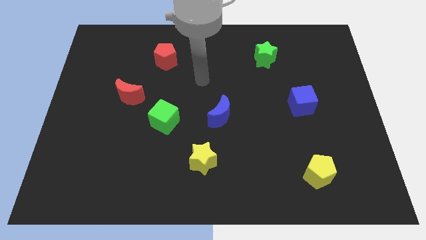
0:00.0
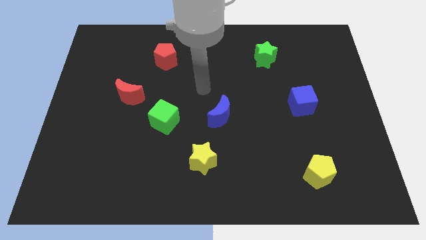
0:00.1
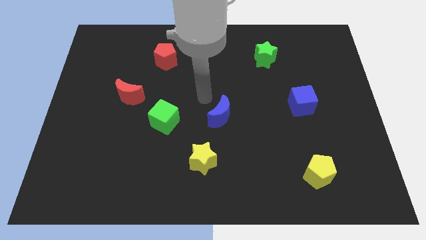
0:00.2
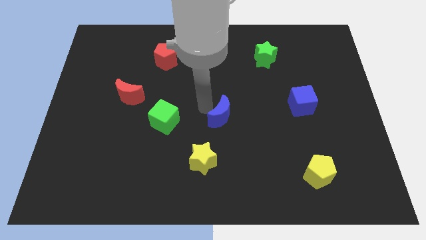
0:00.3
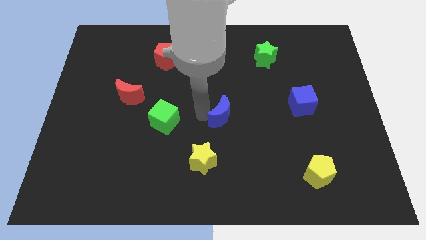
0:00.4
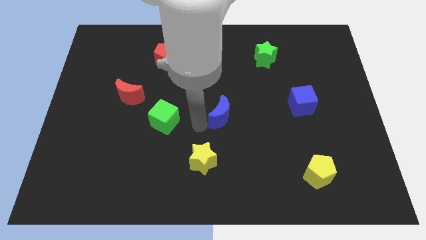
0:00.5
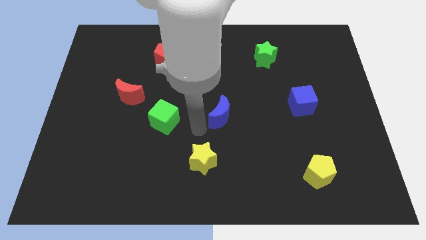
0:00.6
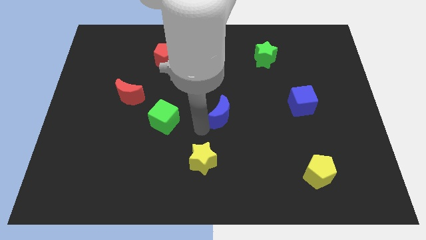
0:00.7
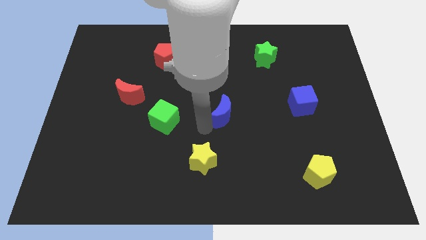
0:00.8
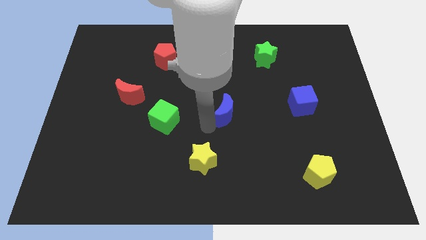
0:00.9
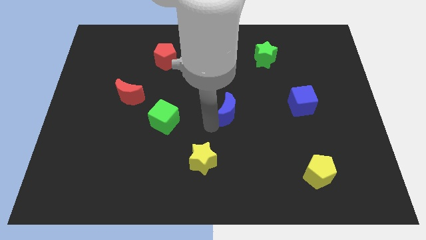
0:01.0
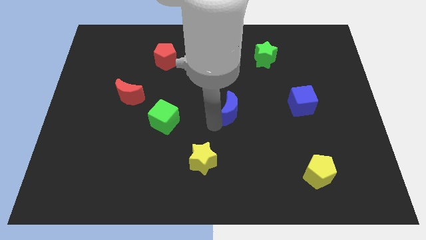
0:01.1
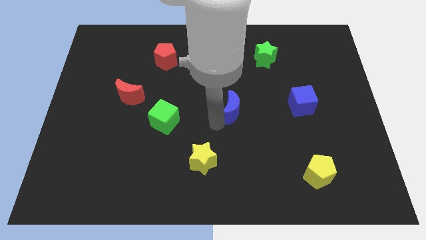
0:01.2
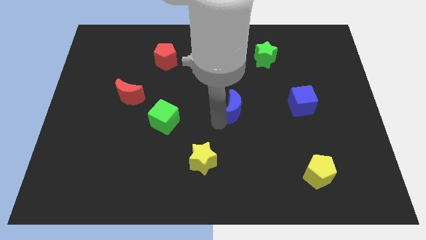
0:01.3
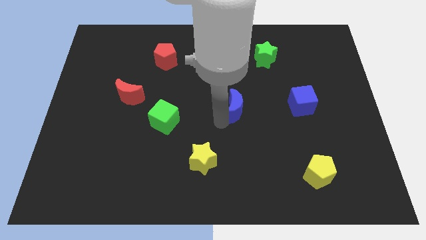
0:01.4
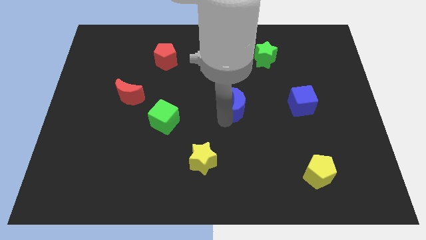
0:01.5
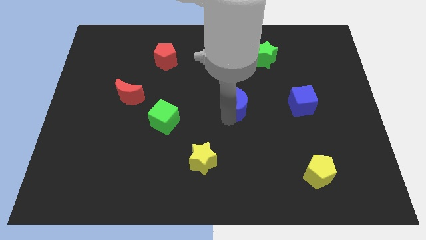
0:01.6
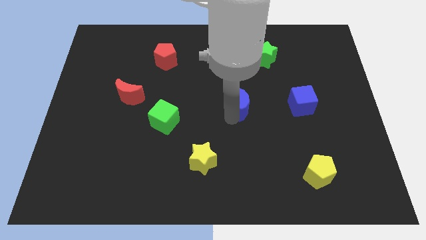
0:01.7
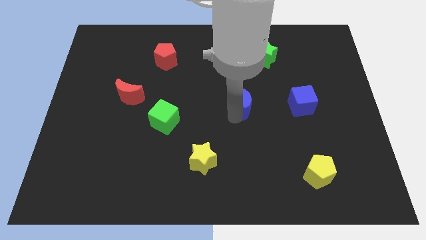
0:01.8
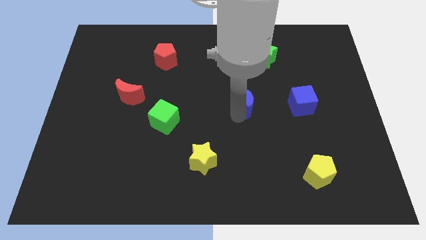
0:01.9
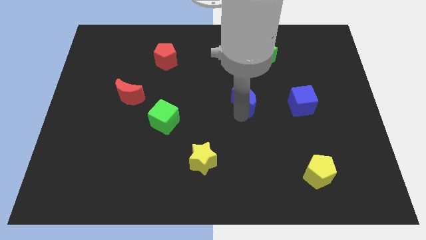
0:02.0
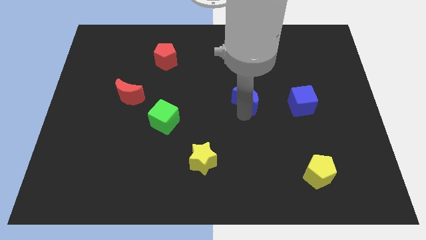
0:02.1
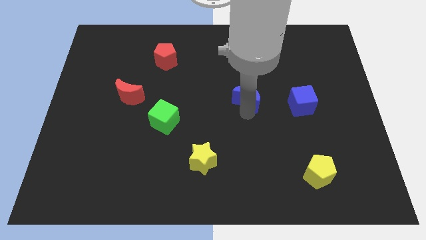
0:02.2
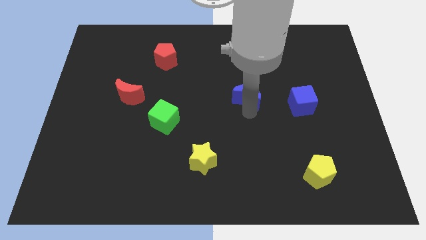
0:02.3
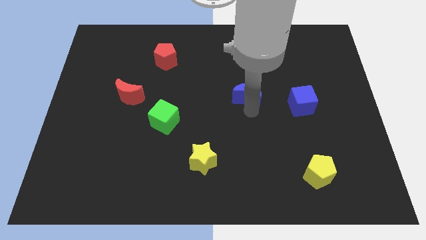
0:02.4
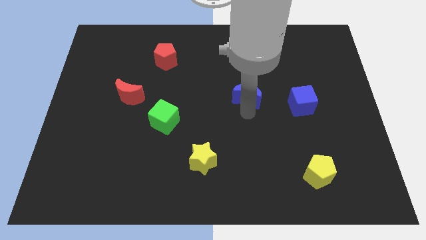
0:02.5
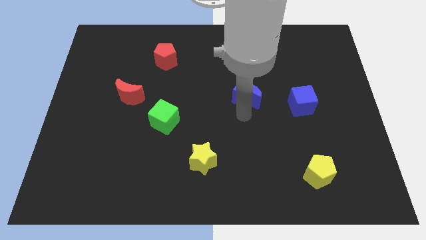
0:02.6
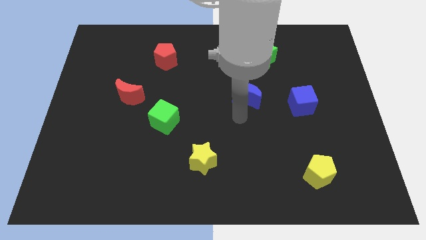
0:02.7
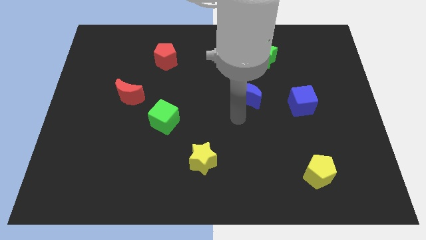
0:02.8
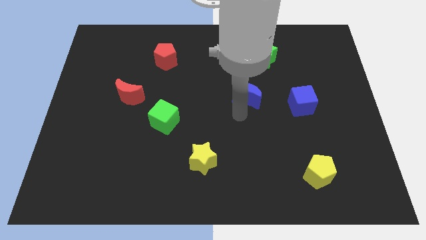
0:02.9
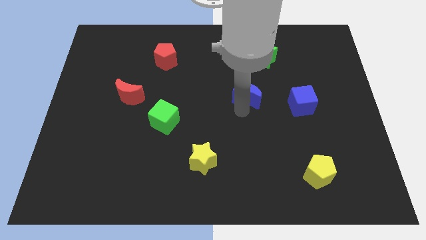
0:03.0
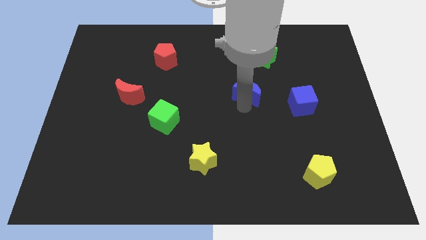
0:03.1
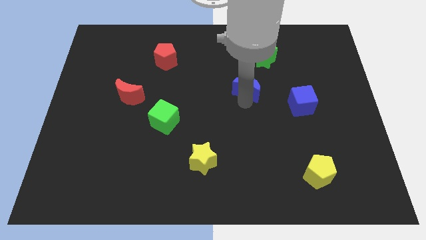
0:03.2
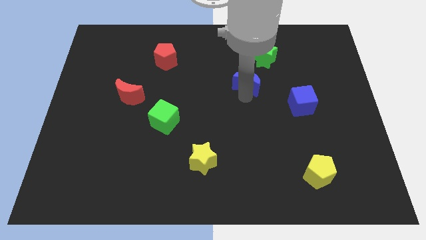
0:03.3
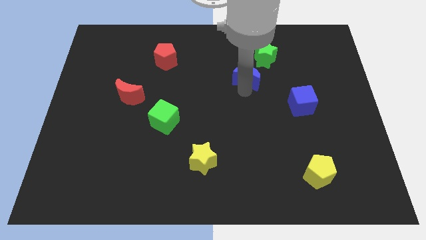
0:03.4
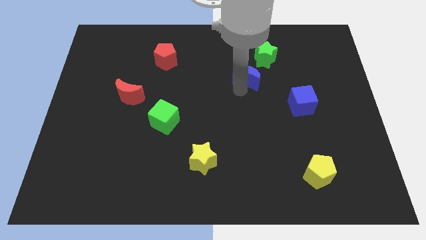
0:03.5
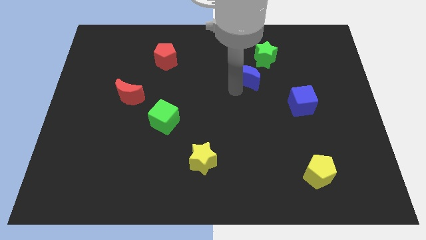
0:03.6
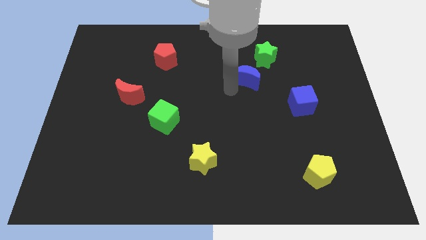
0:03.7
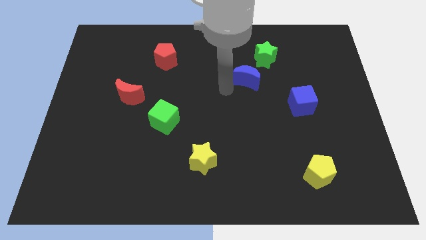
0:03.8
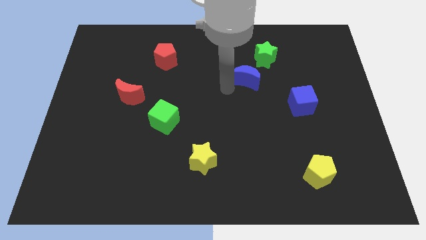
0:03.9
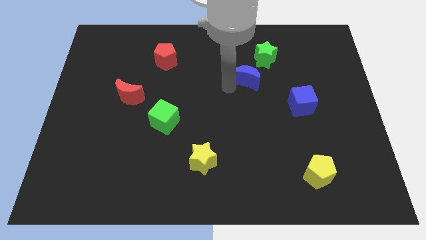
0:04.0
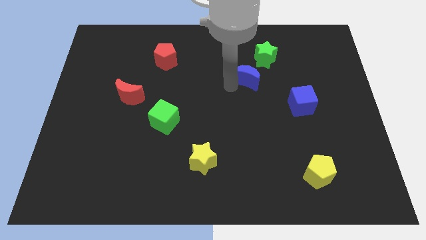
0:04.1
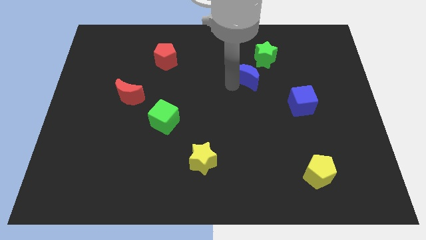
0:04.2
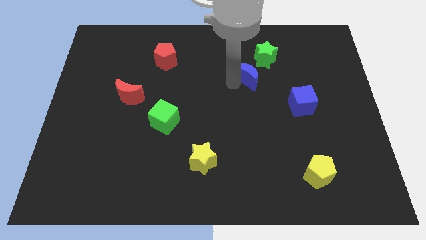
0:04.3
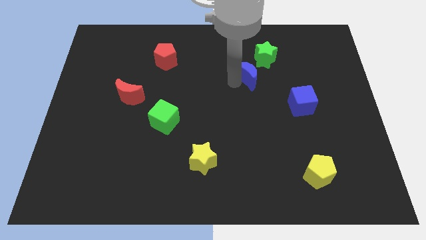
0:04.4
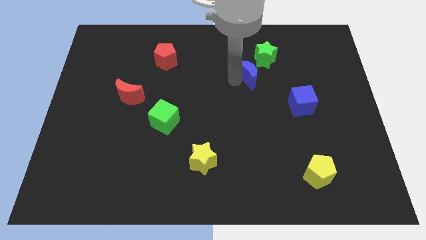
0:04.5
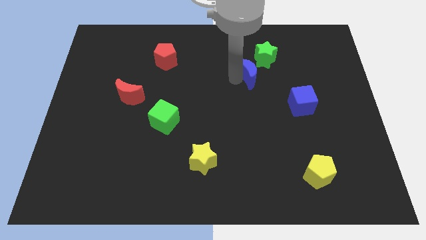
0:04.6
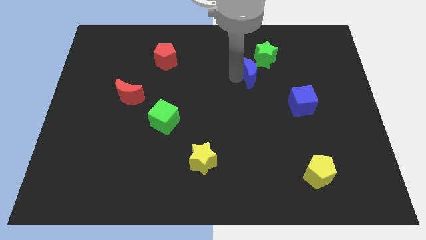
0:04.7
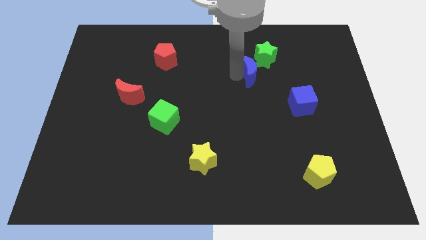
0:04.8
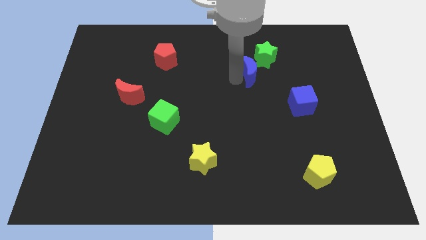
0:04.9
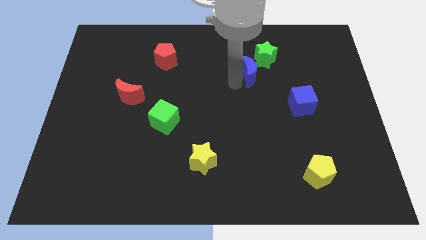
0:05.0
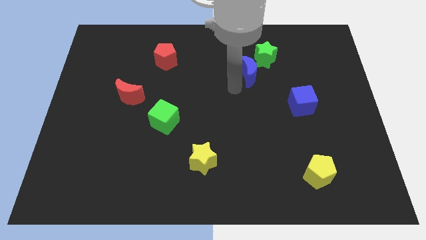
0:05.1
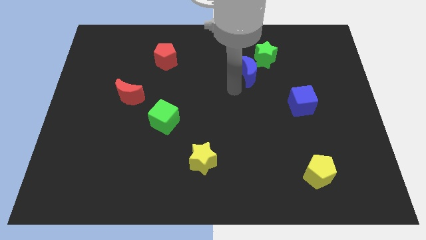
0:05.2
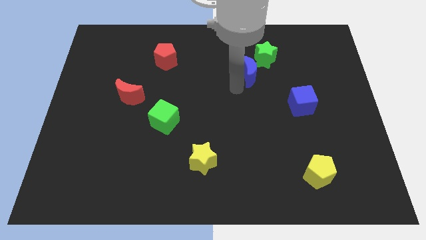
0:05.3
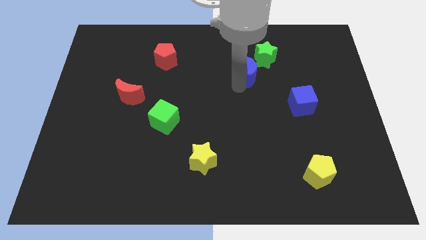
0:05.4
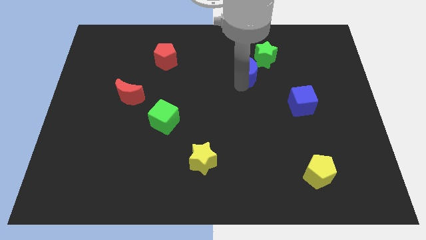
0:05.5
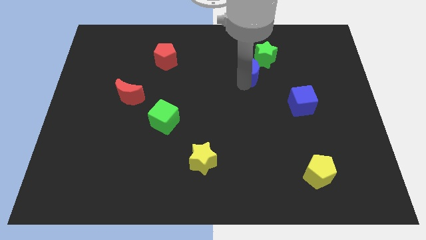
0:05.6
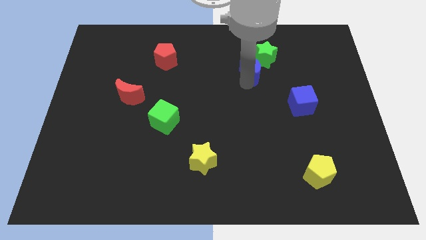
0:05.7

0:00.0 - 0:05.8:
slide the blue moon next to the green star

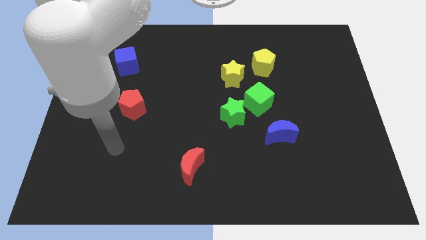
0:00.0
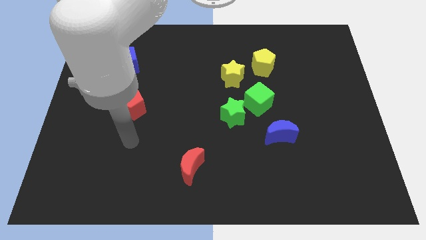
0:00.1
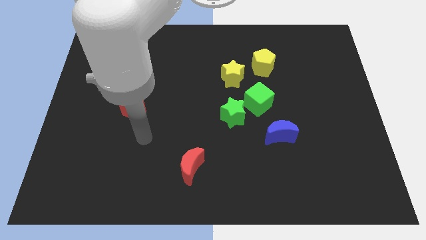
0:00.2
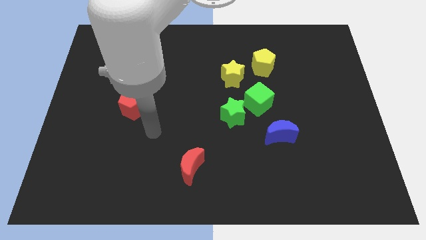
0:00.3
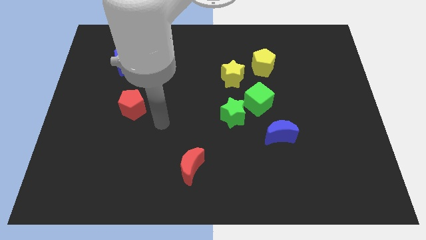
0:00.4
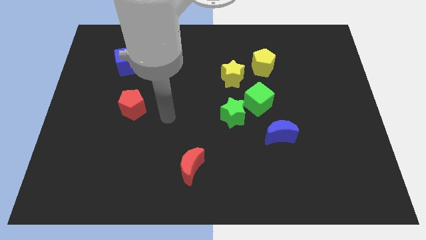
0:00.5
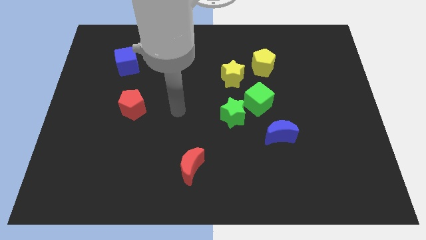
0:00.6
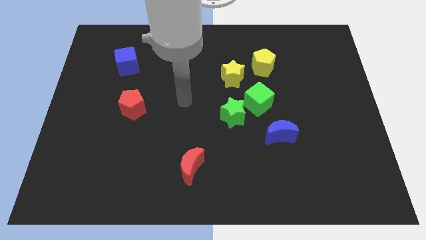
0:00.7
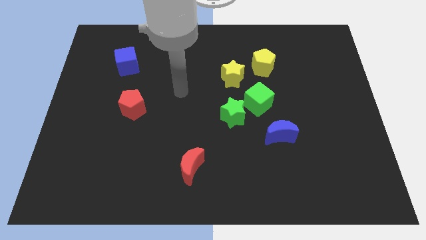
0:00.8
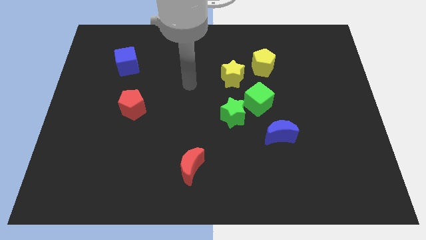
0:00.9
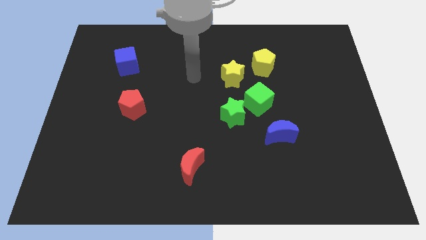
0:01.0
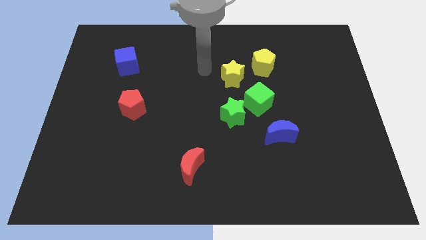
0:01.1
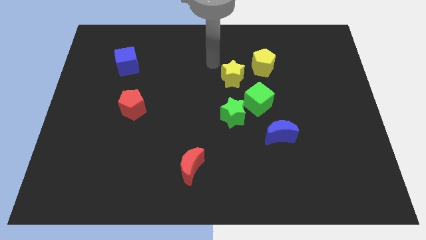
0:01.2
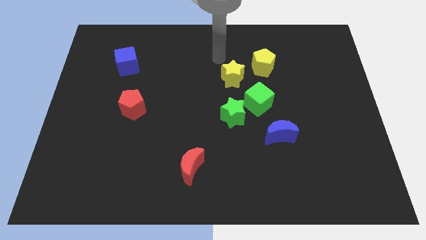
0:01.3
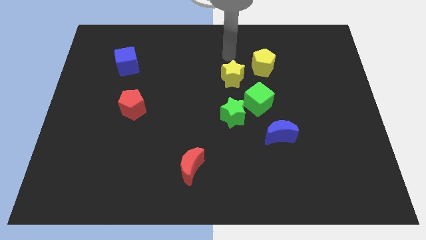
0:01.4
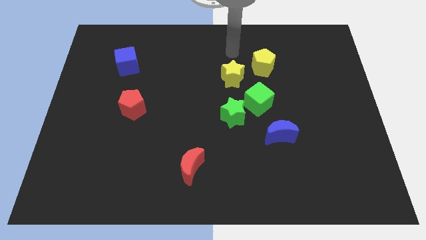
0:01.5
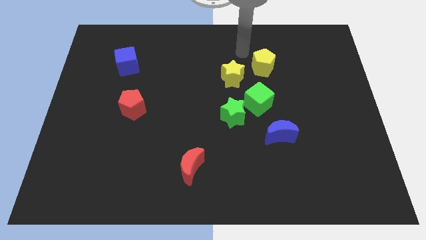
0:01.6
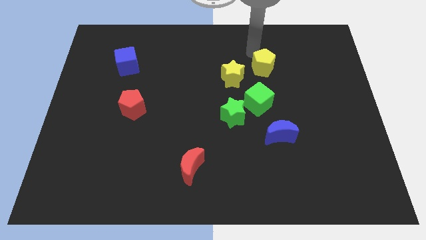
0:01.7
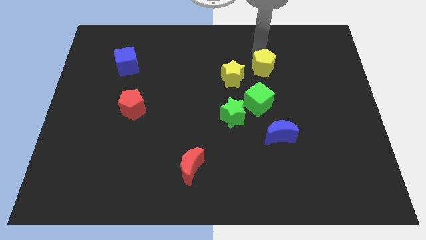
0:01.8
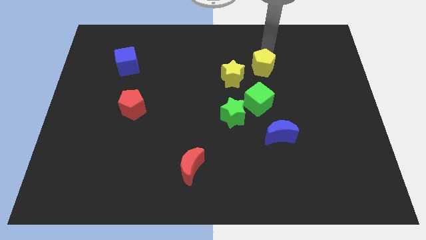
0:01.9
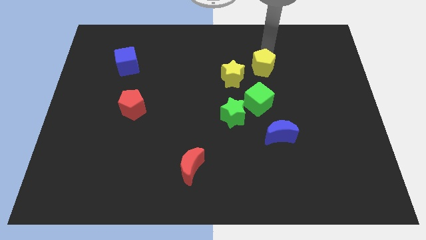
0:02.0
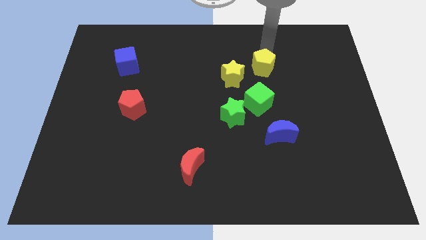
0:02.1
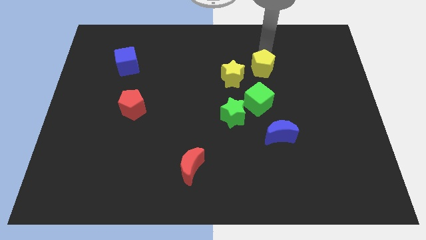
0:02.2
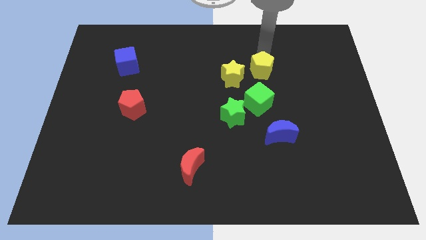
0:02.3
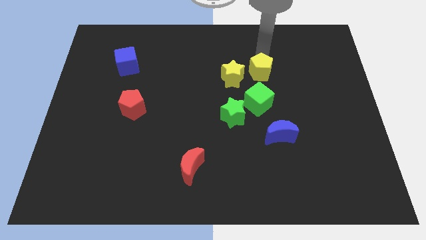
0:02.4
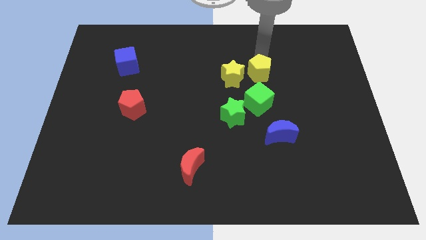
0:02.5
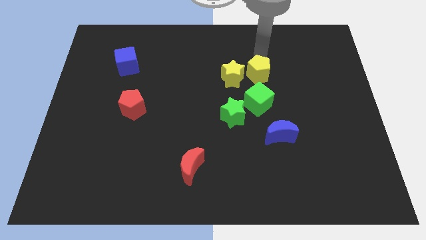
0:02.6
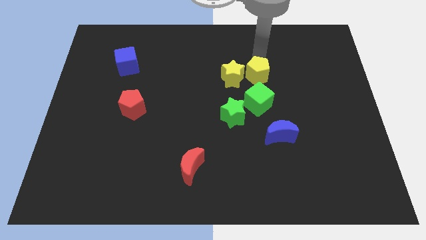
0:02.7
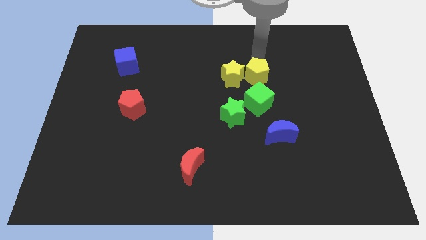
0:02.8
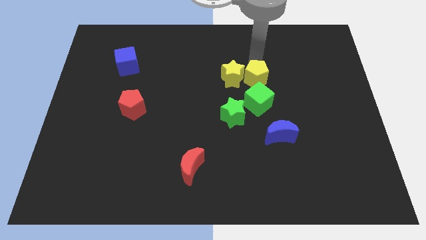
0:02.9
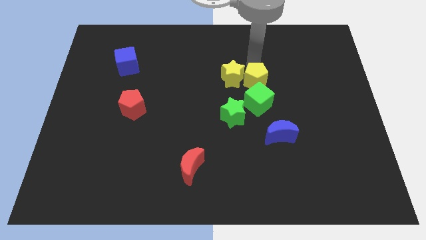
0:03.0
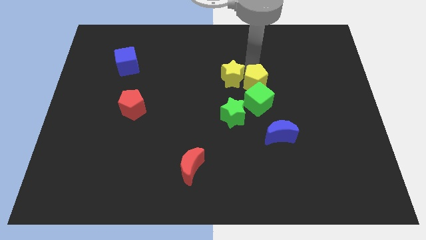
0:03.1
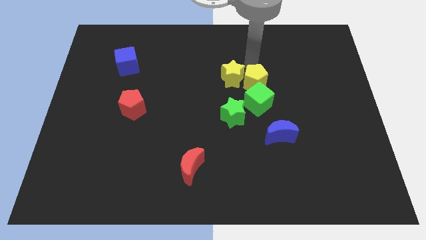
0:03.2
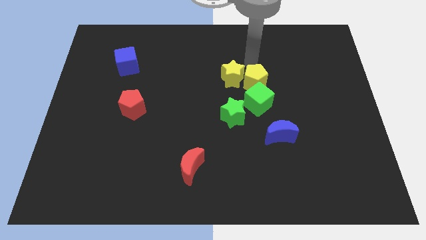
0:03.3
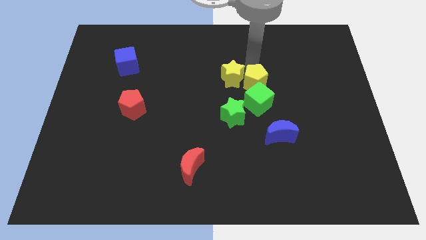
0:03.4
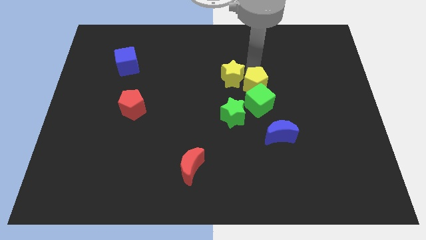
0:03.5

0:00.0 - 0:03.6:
move the yellow pentagon to the green cube
